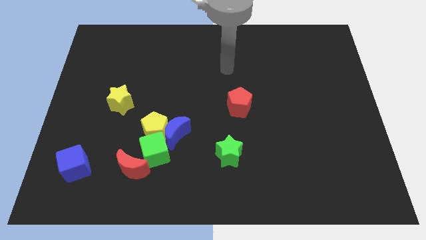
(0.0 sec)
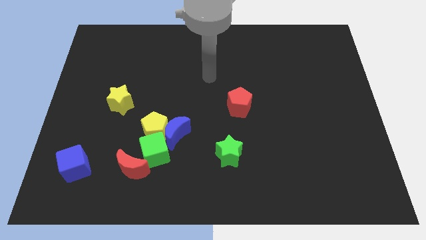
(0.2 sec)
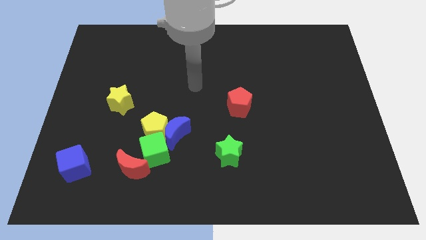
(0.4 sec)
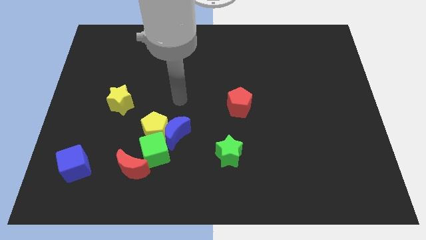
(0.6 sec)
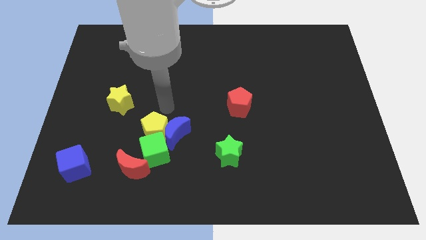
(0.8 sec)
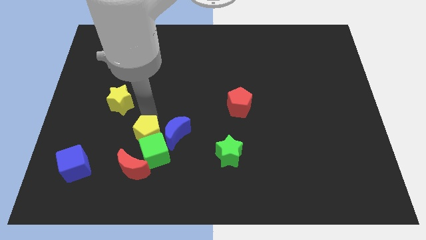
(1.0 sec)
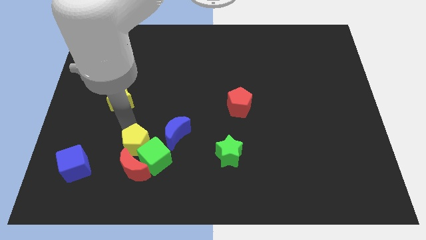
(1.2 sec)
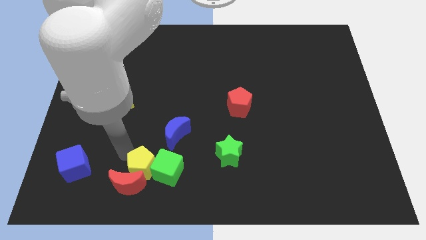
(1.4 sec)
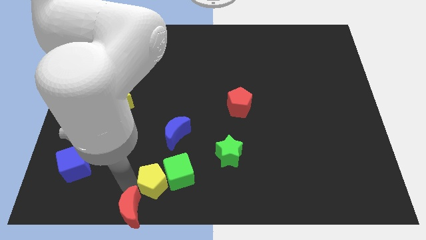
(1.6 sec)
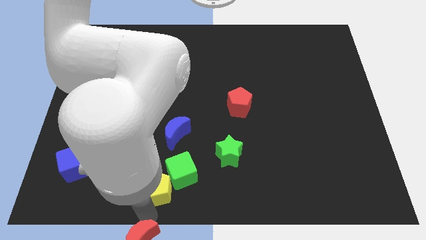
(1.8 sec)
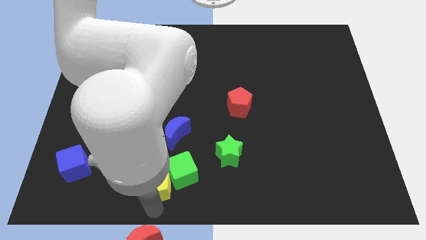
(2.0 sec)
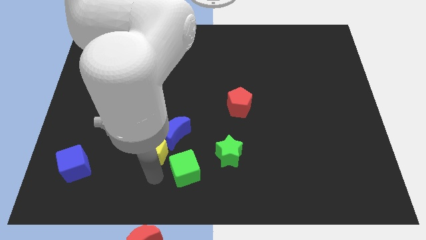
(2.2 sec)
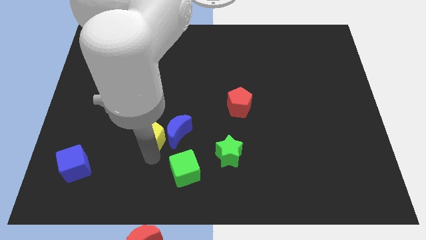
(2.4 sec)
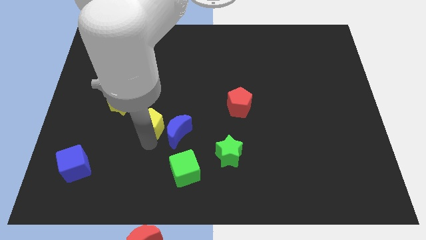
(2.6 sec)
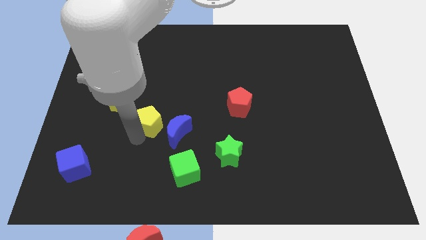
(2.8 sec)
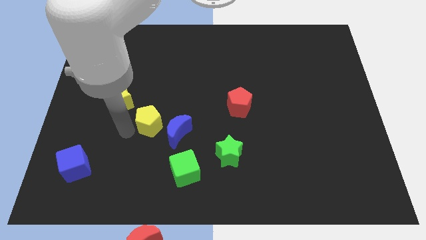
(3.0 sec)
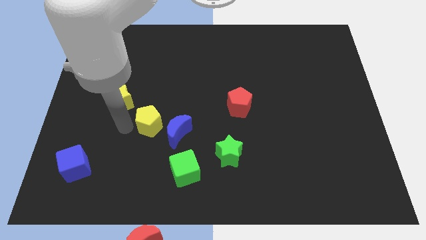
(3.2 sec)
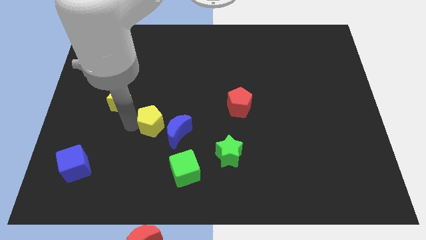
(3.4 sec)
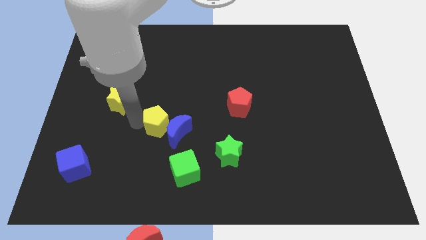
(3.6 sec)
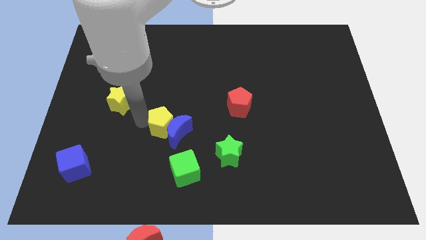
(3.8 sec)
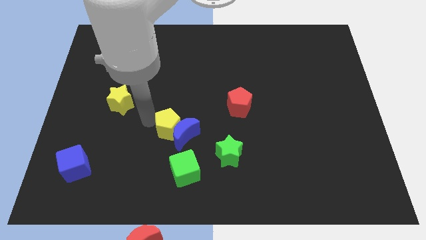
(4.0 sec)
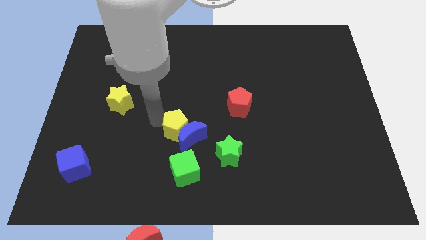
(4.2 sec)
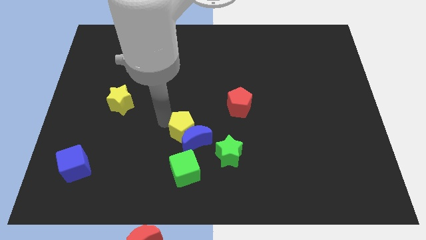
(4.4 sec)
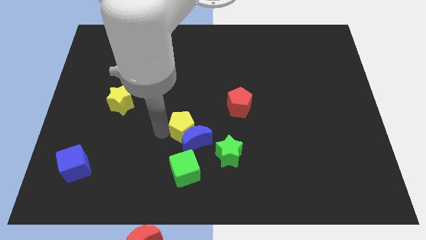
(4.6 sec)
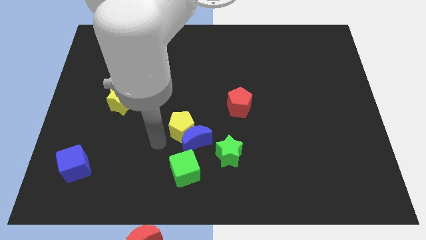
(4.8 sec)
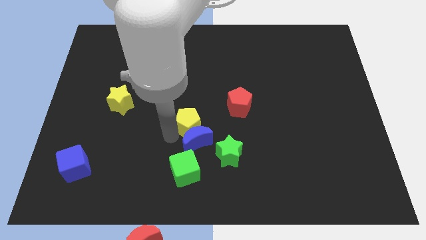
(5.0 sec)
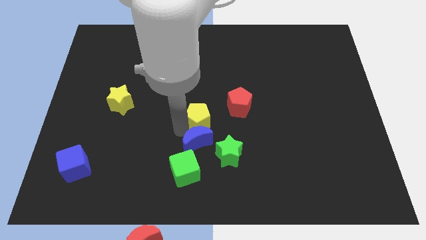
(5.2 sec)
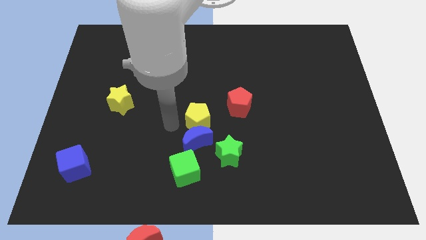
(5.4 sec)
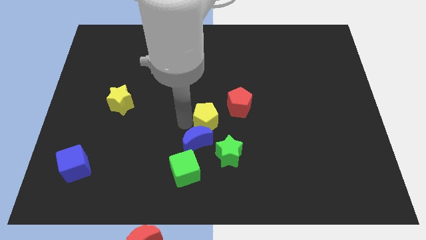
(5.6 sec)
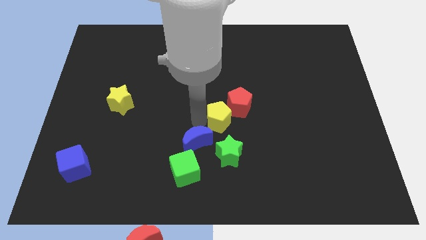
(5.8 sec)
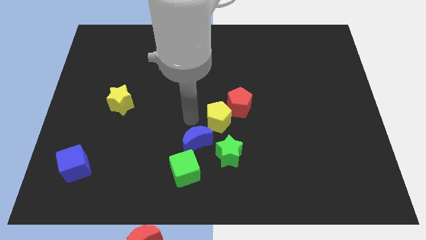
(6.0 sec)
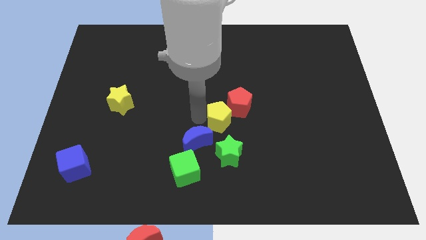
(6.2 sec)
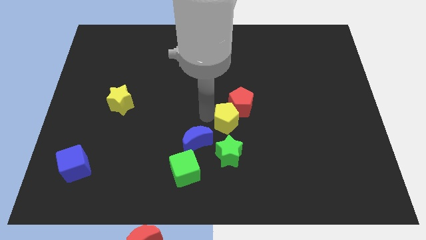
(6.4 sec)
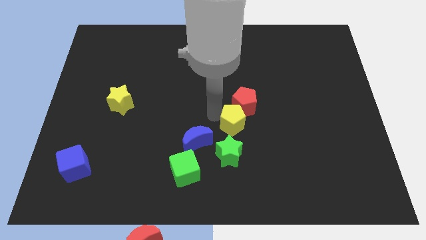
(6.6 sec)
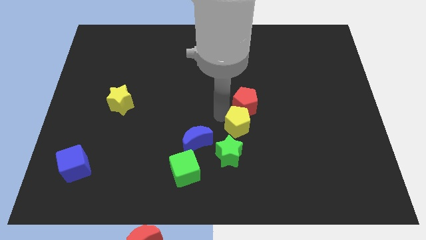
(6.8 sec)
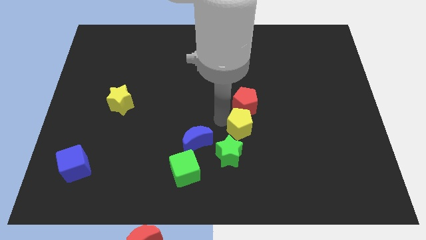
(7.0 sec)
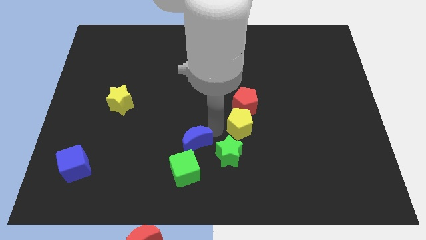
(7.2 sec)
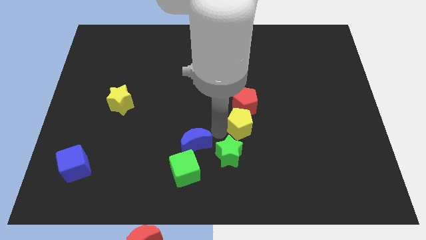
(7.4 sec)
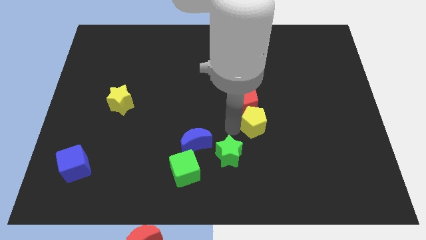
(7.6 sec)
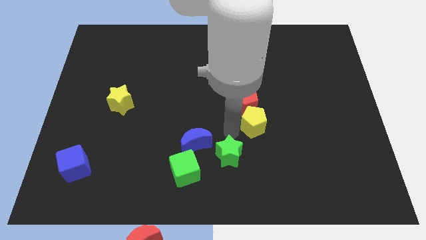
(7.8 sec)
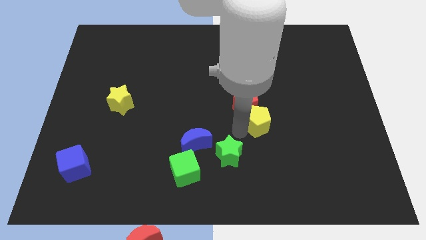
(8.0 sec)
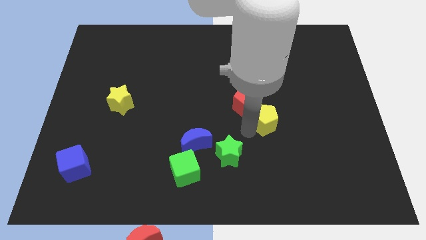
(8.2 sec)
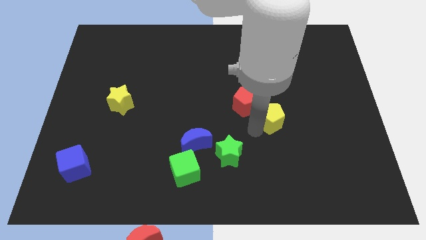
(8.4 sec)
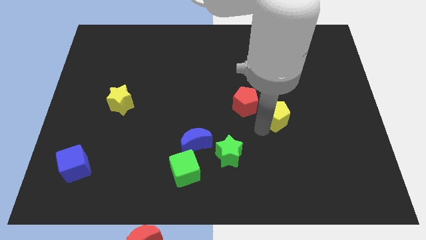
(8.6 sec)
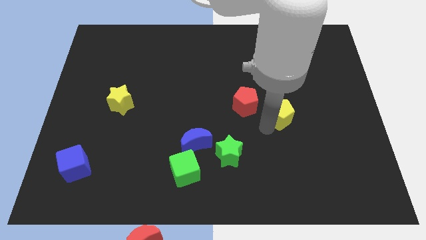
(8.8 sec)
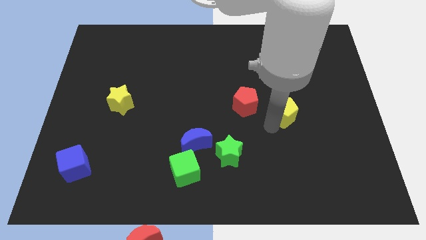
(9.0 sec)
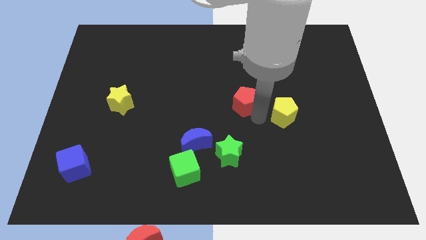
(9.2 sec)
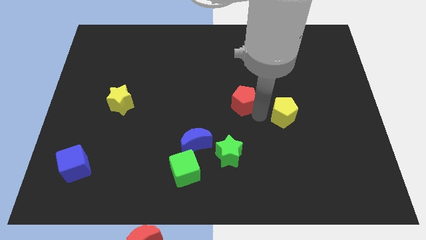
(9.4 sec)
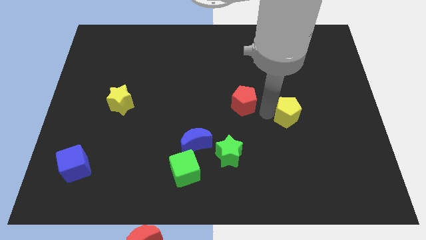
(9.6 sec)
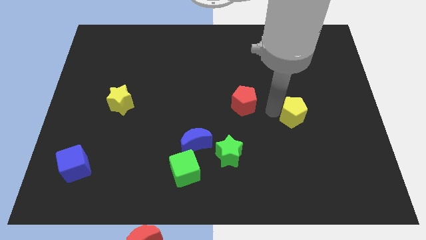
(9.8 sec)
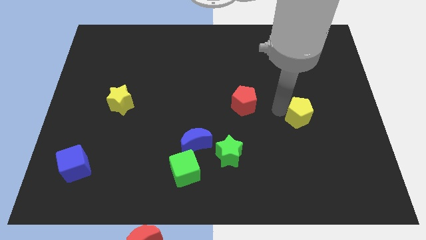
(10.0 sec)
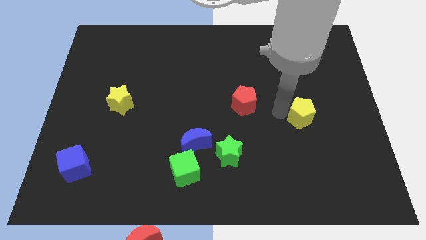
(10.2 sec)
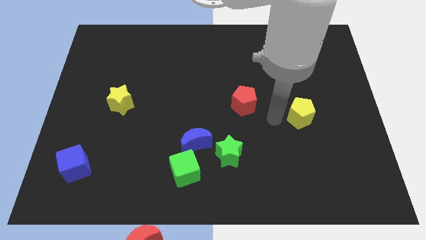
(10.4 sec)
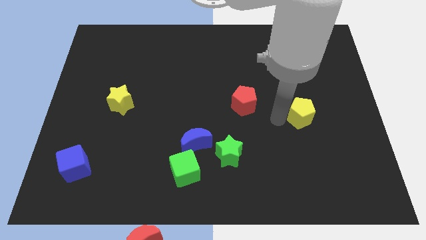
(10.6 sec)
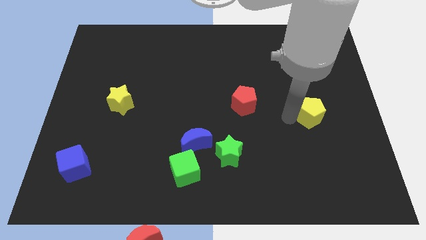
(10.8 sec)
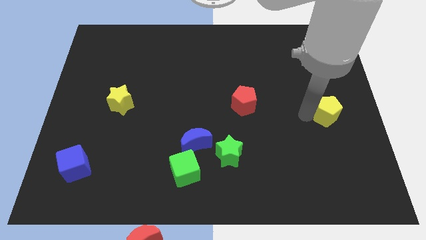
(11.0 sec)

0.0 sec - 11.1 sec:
move the yellow pentagon to the right side of the board
